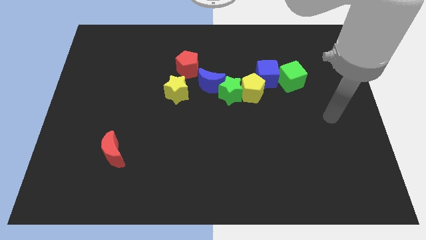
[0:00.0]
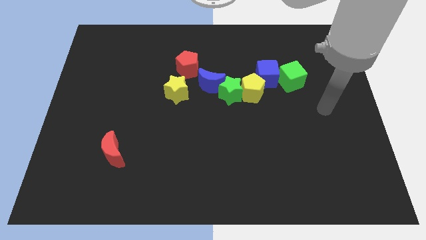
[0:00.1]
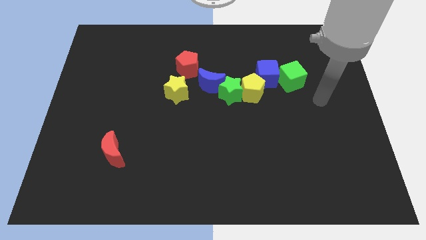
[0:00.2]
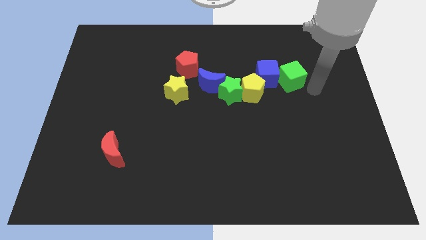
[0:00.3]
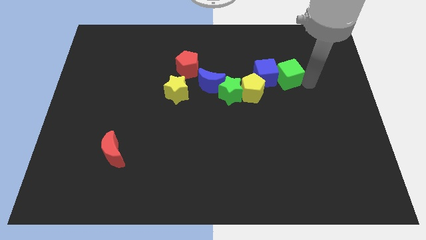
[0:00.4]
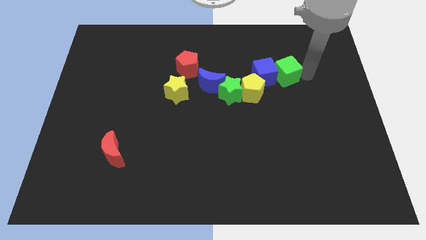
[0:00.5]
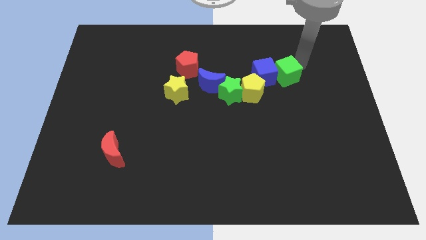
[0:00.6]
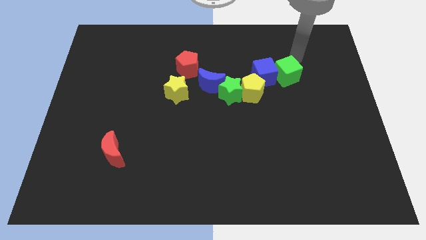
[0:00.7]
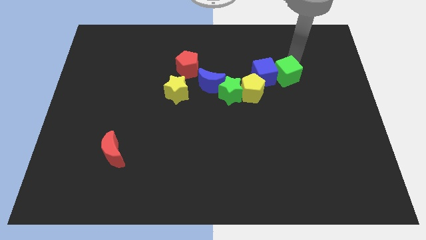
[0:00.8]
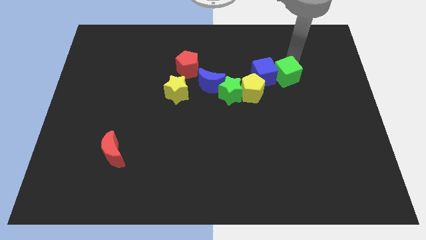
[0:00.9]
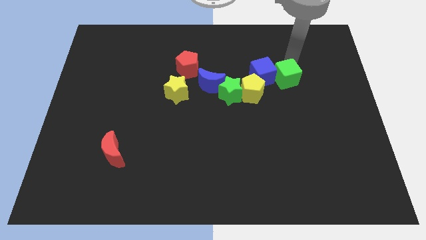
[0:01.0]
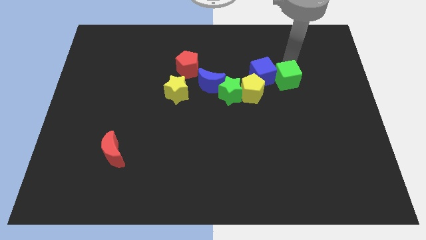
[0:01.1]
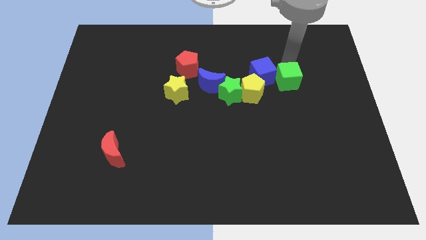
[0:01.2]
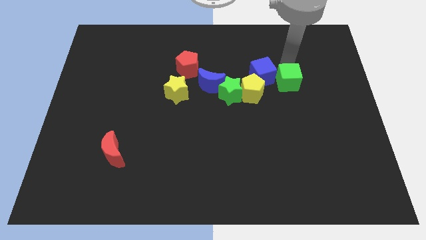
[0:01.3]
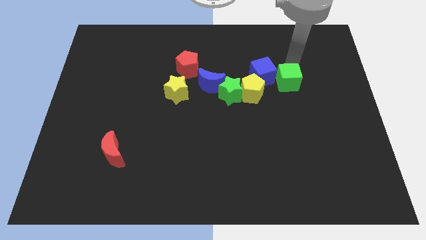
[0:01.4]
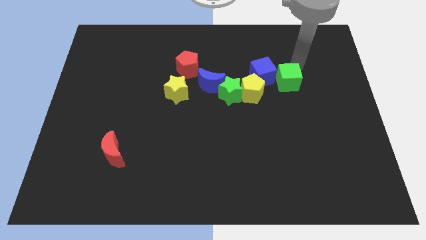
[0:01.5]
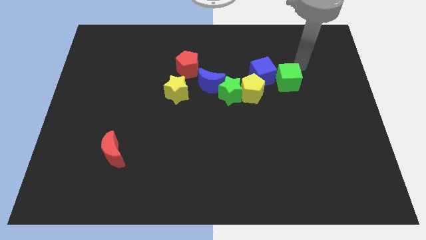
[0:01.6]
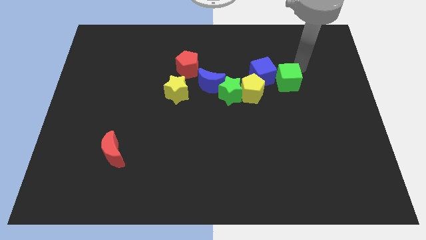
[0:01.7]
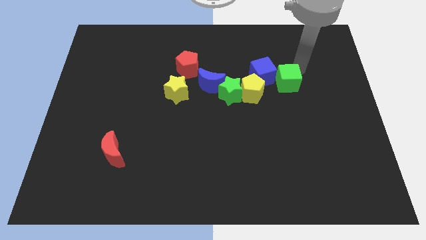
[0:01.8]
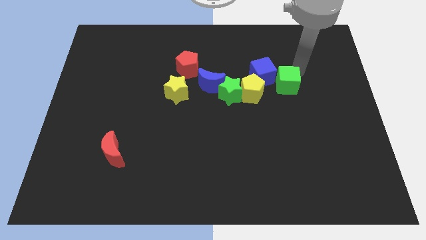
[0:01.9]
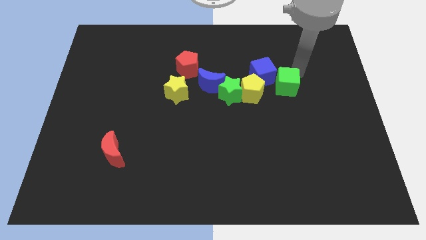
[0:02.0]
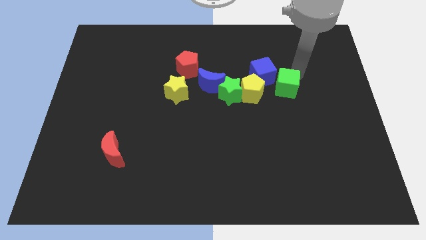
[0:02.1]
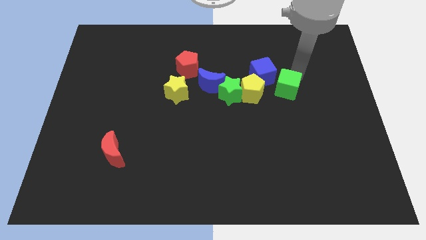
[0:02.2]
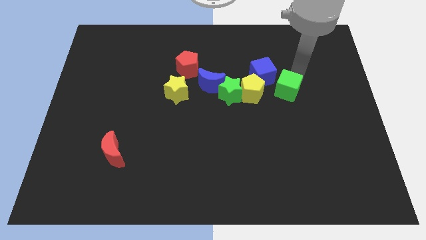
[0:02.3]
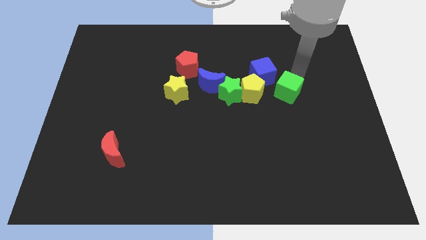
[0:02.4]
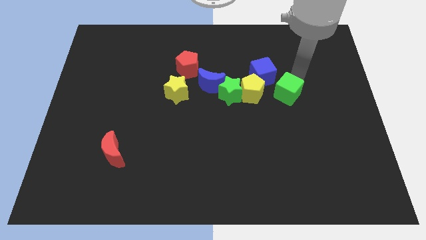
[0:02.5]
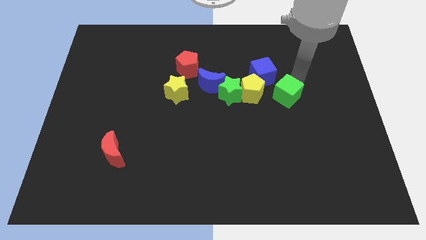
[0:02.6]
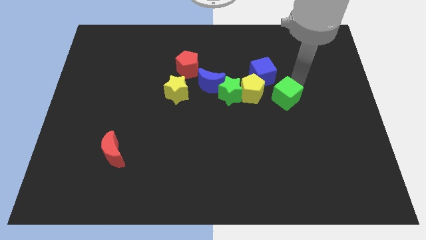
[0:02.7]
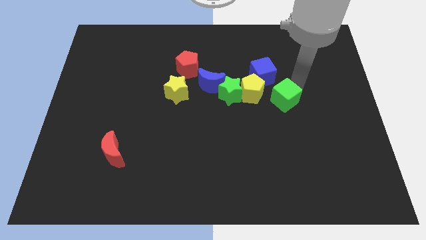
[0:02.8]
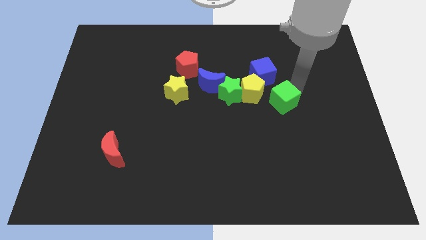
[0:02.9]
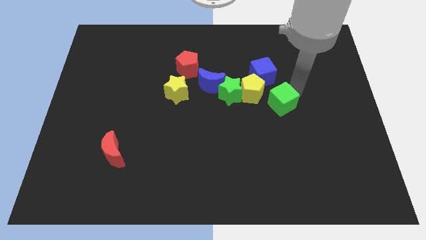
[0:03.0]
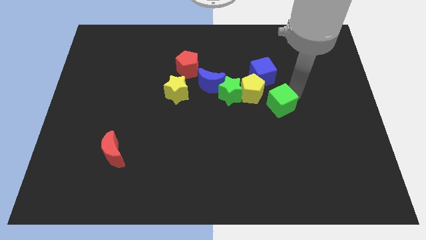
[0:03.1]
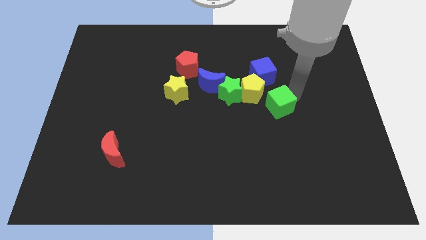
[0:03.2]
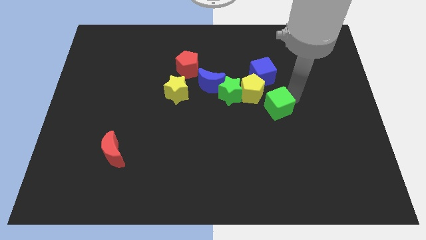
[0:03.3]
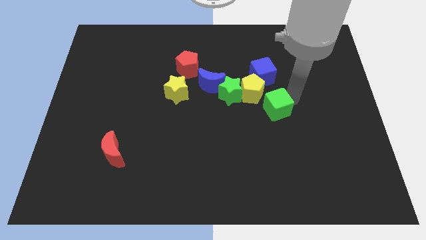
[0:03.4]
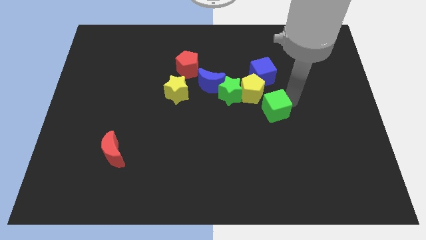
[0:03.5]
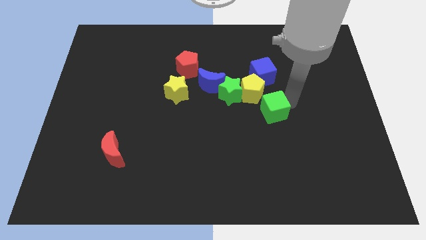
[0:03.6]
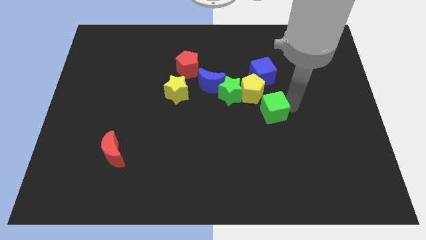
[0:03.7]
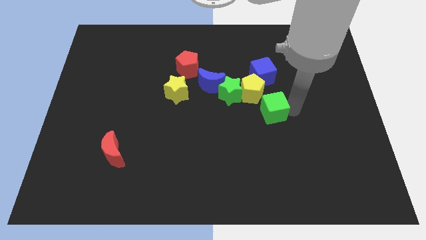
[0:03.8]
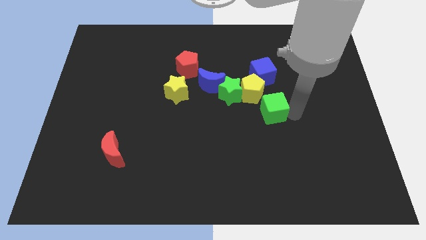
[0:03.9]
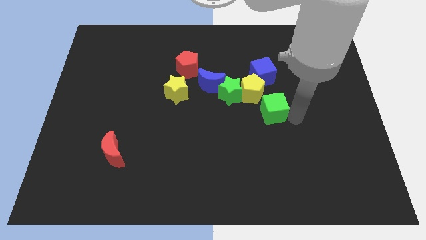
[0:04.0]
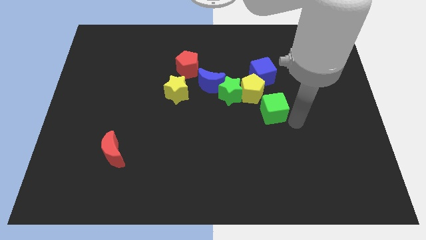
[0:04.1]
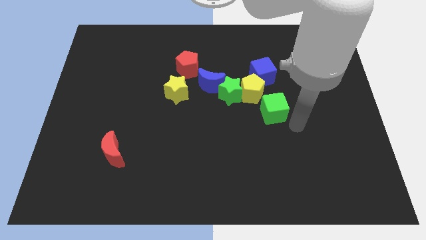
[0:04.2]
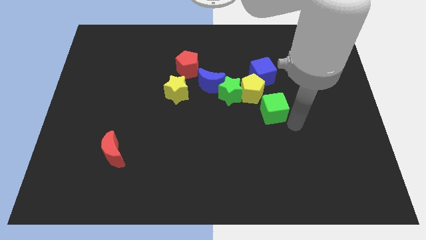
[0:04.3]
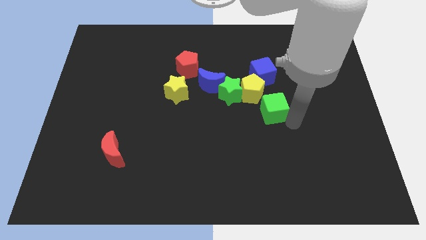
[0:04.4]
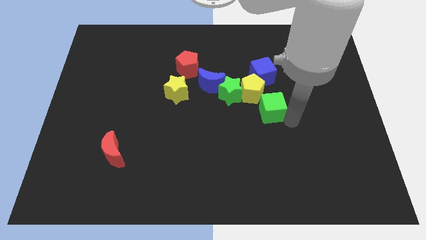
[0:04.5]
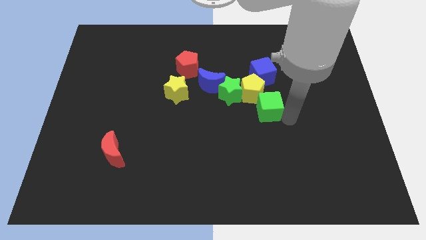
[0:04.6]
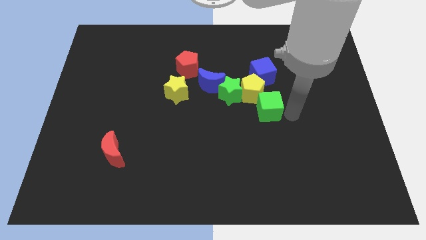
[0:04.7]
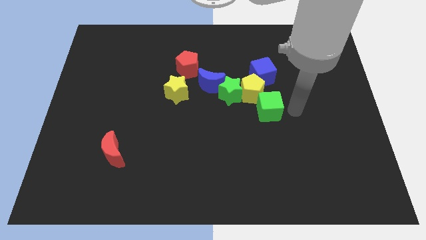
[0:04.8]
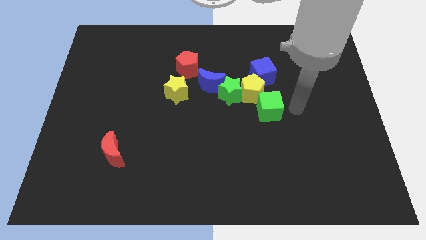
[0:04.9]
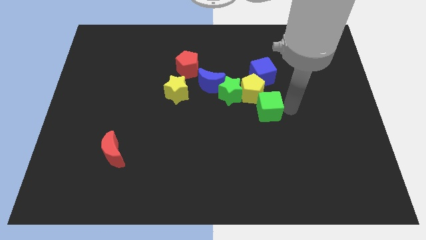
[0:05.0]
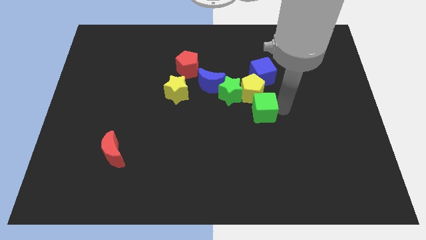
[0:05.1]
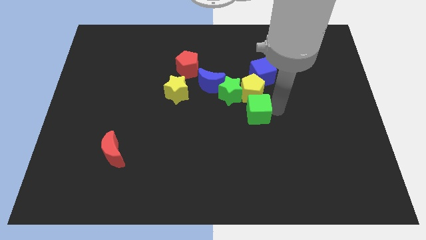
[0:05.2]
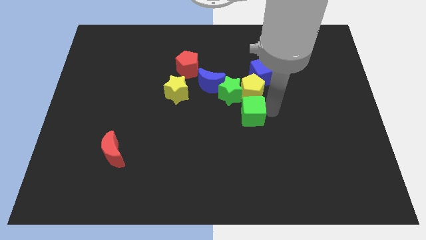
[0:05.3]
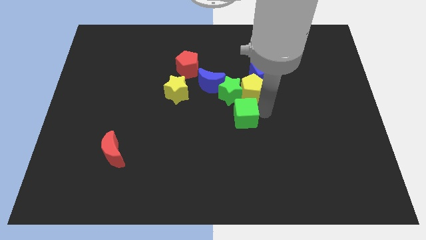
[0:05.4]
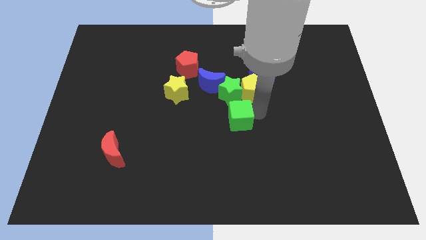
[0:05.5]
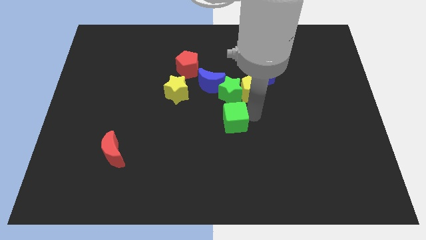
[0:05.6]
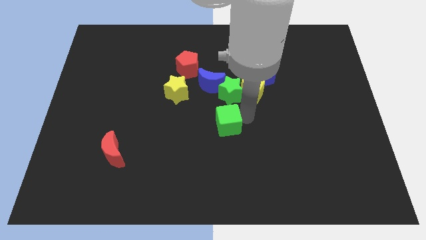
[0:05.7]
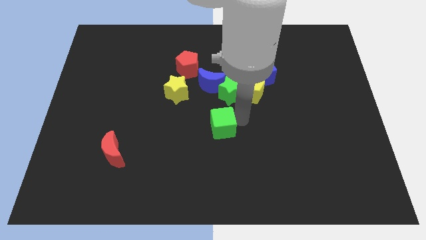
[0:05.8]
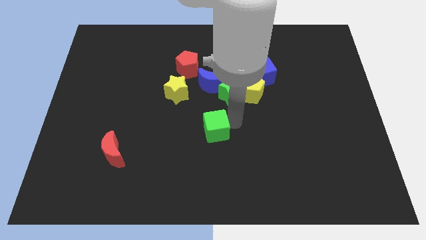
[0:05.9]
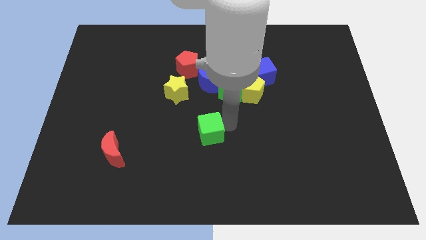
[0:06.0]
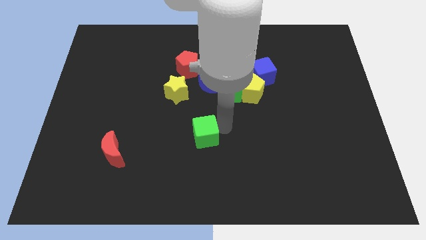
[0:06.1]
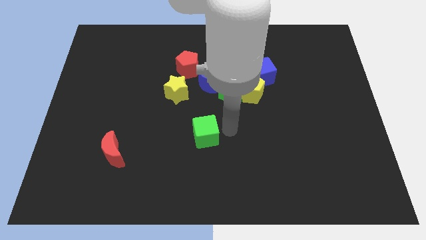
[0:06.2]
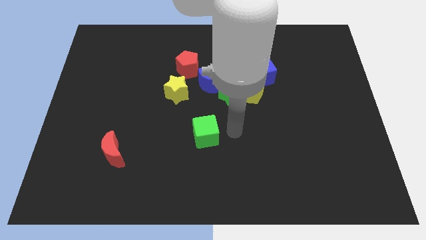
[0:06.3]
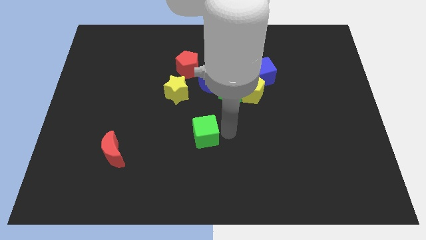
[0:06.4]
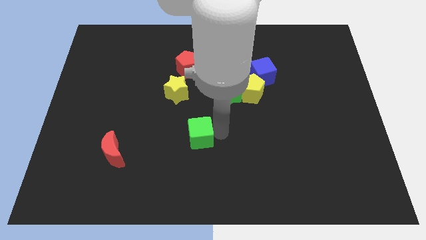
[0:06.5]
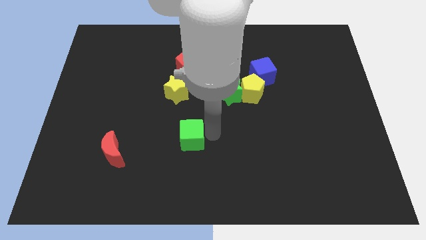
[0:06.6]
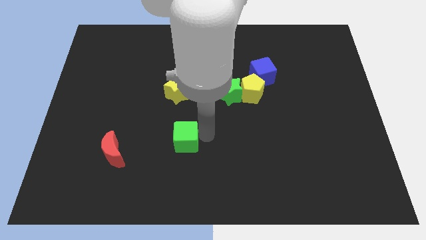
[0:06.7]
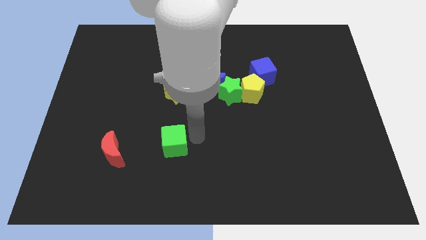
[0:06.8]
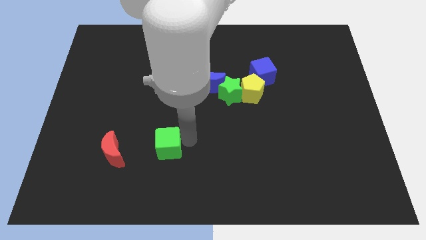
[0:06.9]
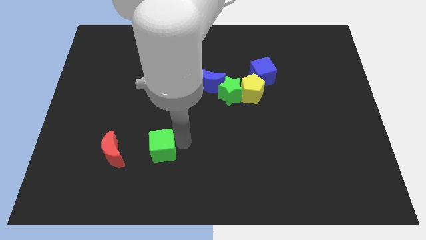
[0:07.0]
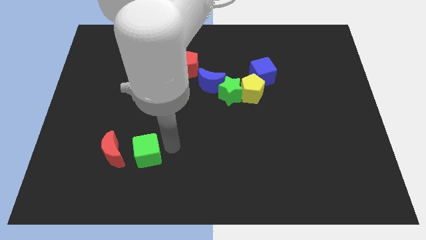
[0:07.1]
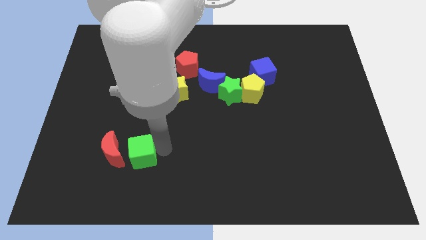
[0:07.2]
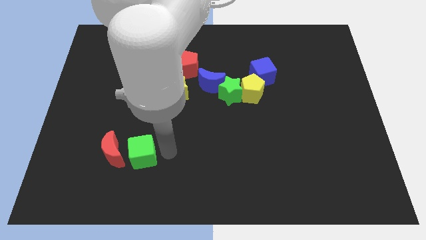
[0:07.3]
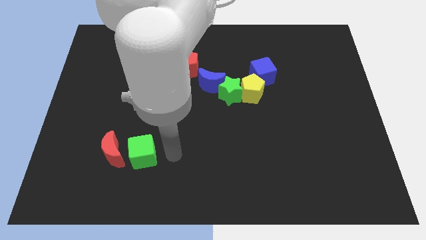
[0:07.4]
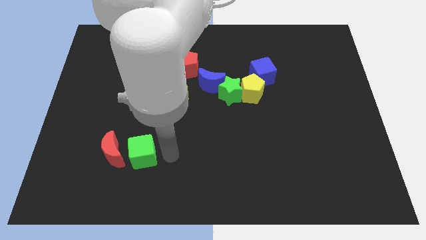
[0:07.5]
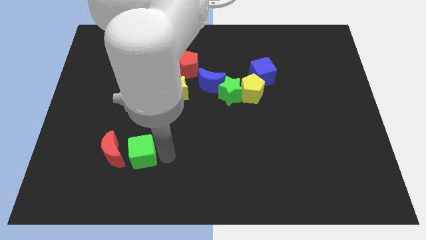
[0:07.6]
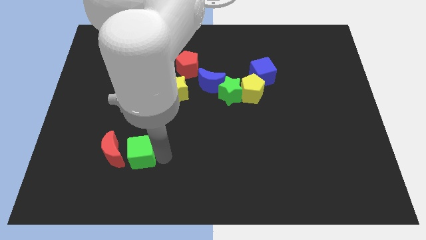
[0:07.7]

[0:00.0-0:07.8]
put the green cube towards the red moon
